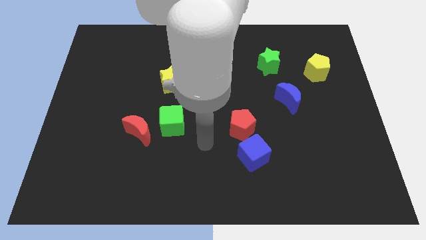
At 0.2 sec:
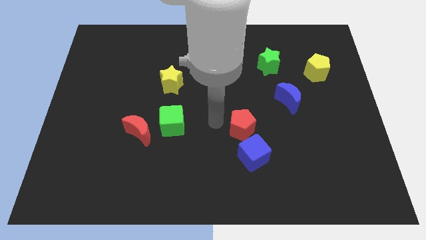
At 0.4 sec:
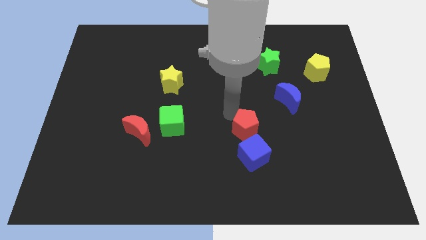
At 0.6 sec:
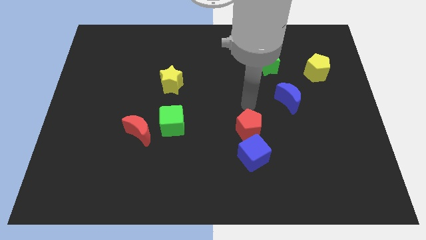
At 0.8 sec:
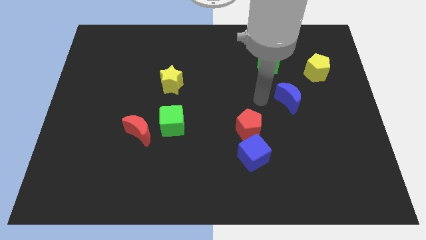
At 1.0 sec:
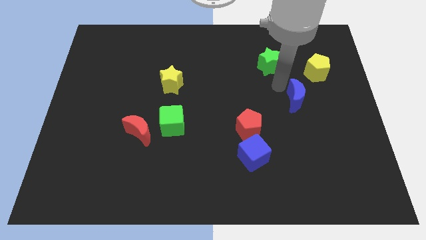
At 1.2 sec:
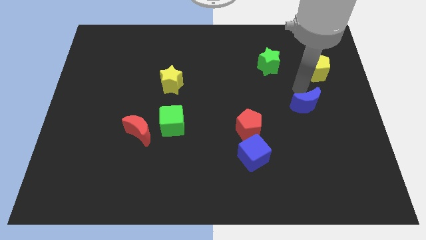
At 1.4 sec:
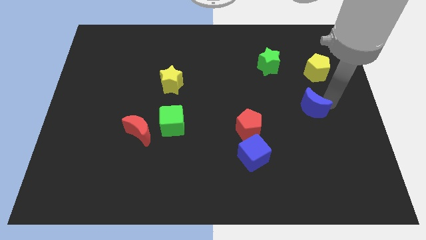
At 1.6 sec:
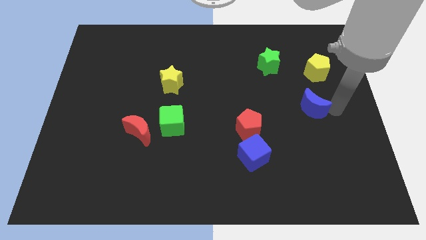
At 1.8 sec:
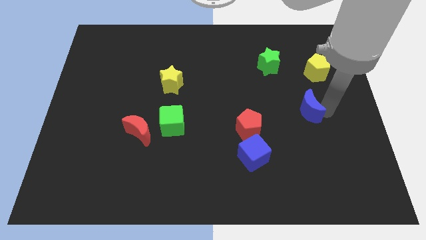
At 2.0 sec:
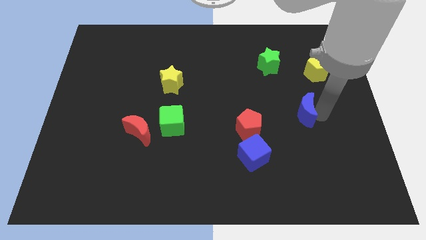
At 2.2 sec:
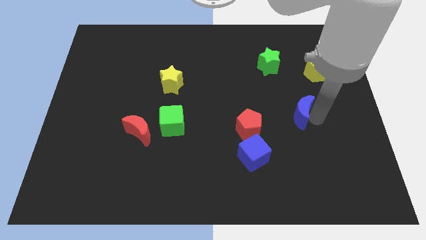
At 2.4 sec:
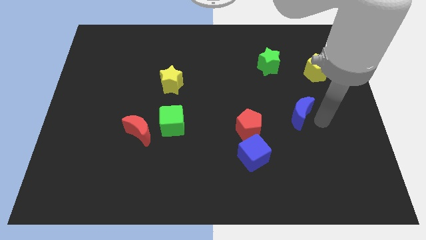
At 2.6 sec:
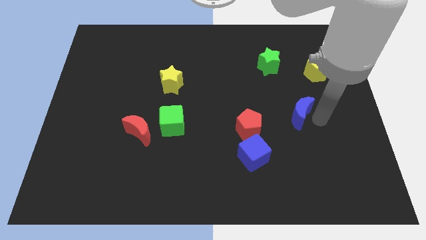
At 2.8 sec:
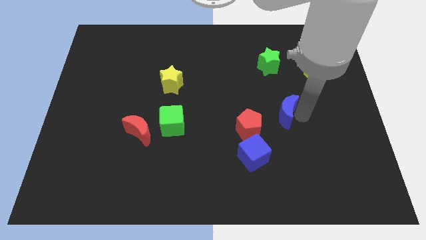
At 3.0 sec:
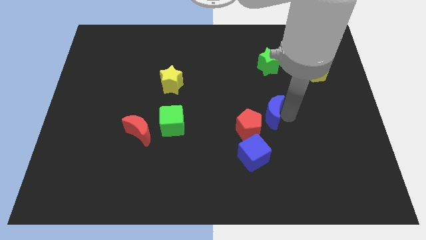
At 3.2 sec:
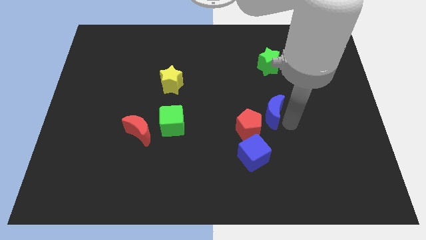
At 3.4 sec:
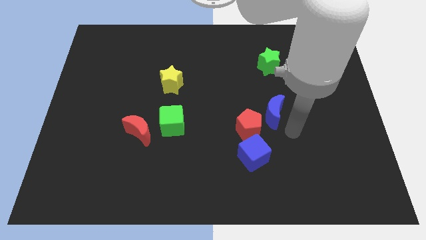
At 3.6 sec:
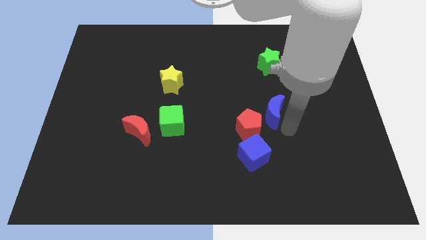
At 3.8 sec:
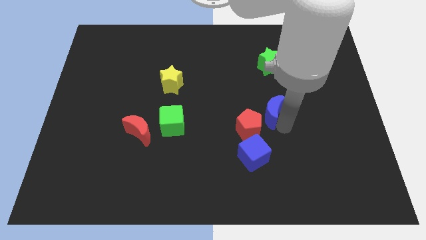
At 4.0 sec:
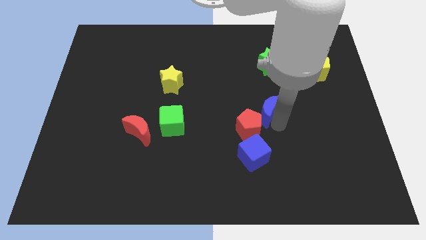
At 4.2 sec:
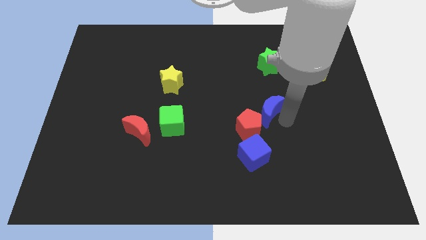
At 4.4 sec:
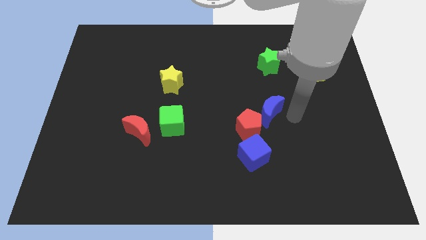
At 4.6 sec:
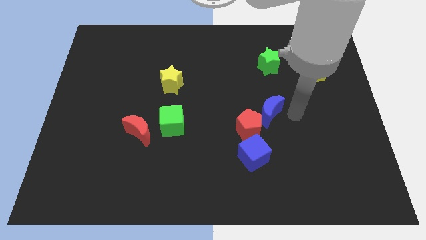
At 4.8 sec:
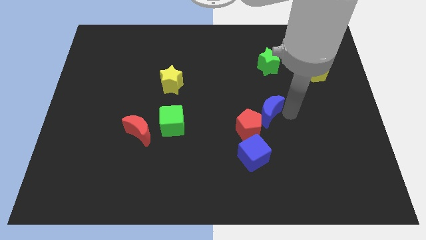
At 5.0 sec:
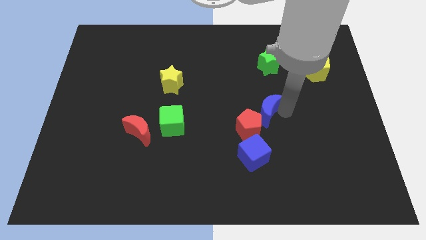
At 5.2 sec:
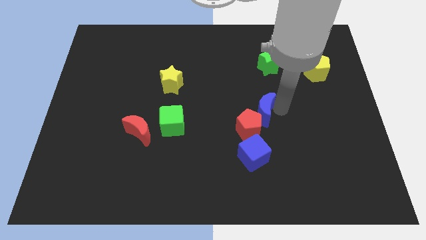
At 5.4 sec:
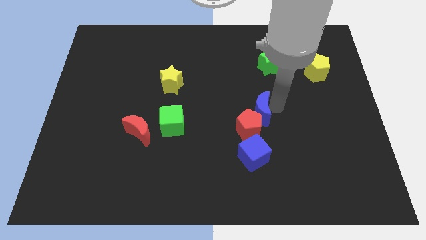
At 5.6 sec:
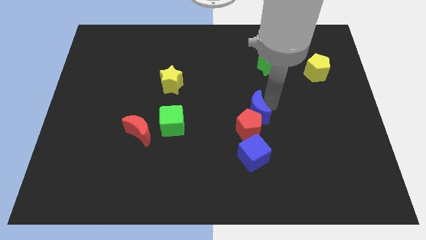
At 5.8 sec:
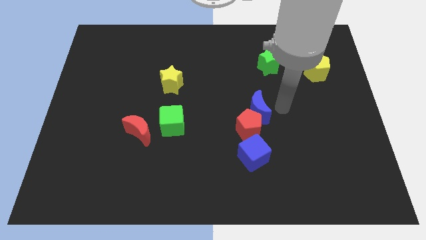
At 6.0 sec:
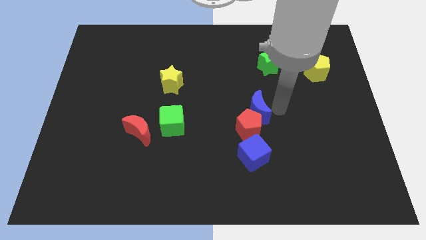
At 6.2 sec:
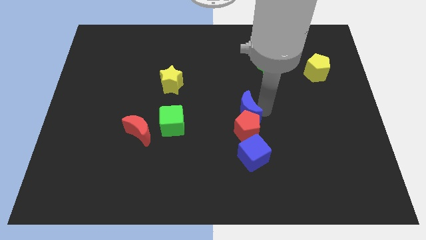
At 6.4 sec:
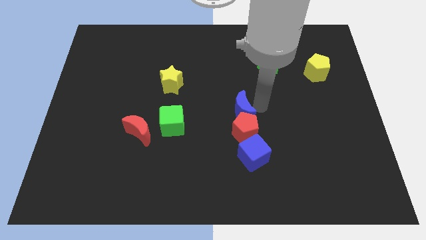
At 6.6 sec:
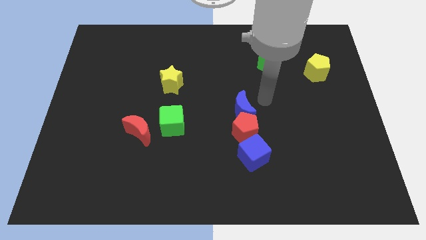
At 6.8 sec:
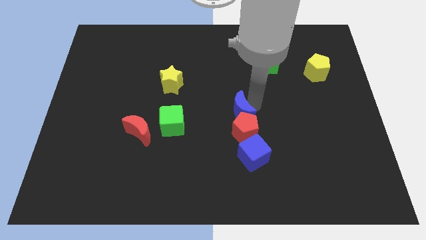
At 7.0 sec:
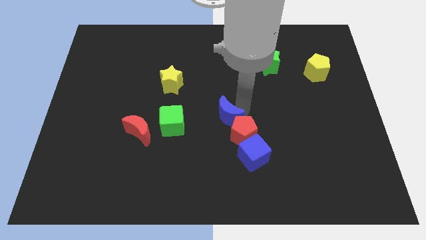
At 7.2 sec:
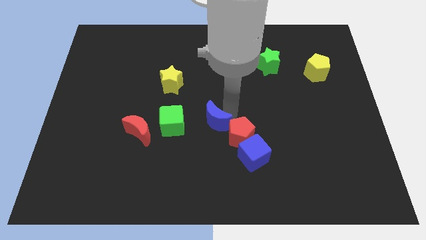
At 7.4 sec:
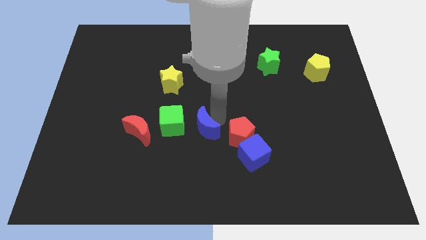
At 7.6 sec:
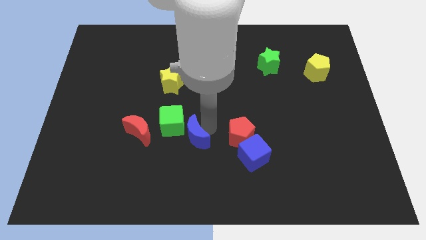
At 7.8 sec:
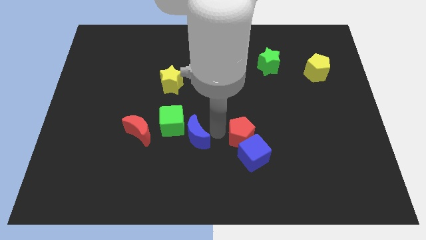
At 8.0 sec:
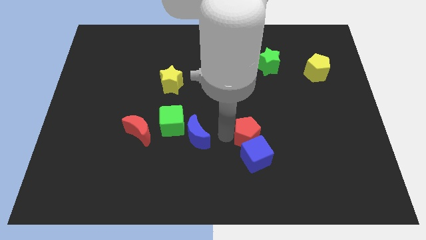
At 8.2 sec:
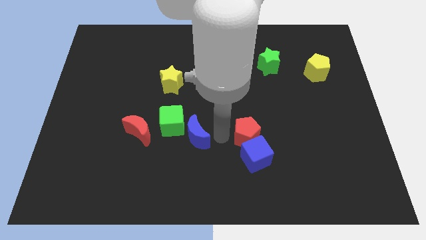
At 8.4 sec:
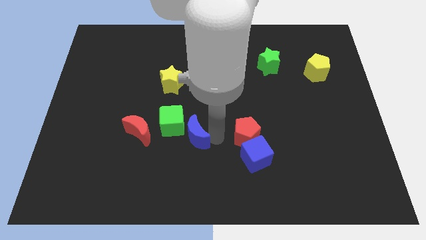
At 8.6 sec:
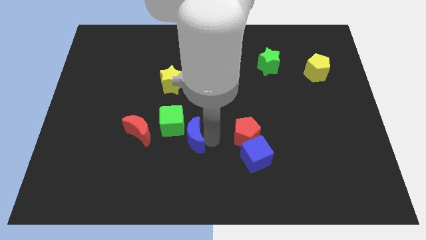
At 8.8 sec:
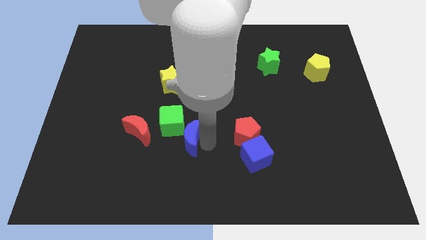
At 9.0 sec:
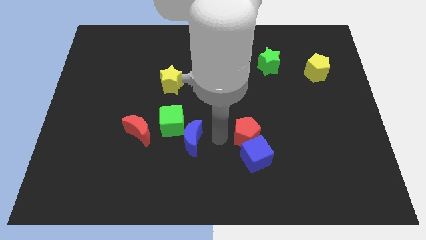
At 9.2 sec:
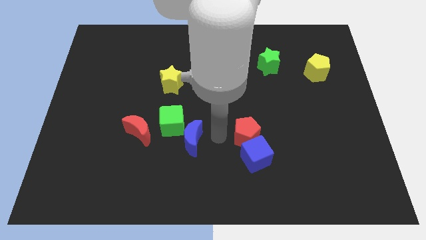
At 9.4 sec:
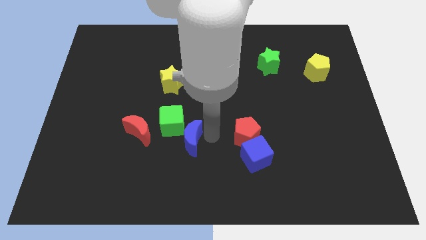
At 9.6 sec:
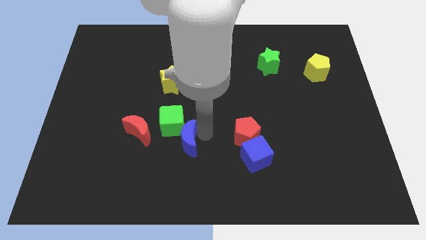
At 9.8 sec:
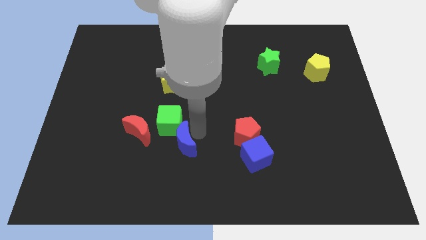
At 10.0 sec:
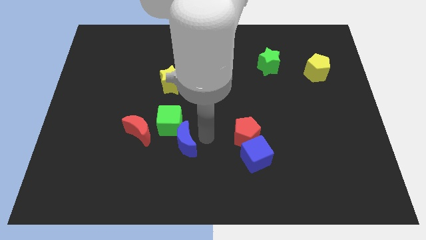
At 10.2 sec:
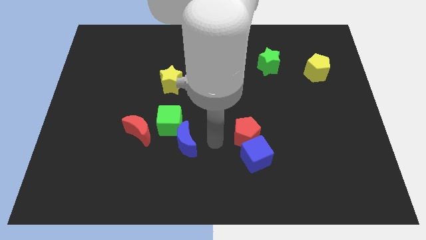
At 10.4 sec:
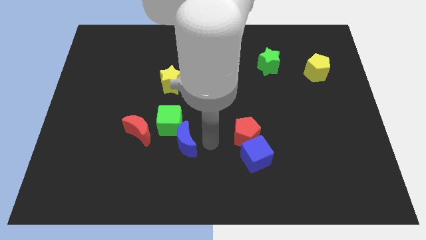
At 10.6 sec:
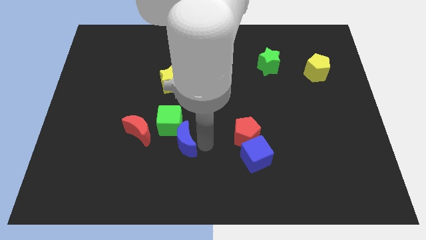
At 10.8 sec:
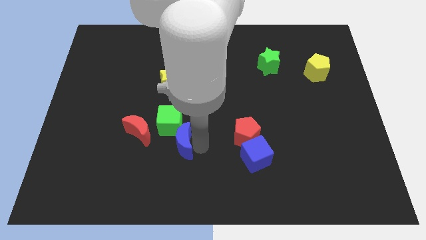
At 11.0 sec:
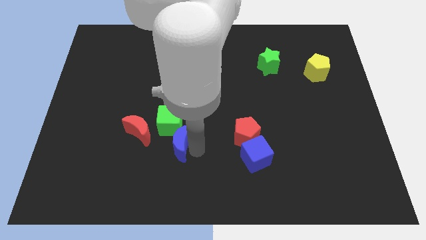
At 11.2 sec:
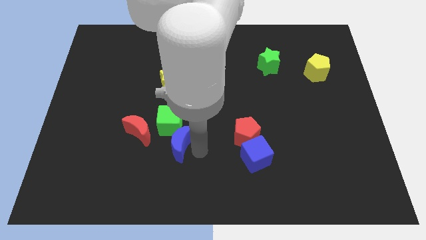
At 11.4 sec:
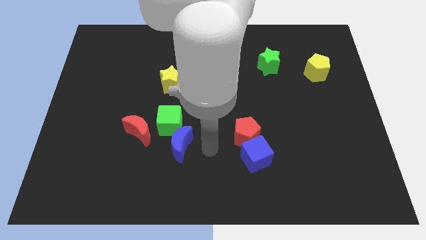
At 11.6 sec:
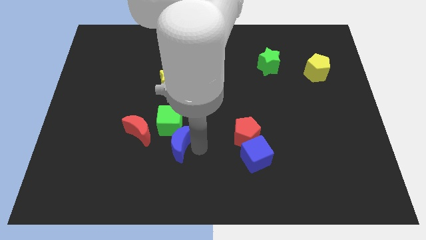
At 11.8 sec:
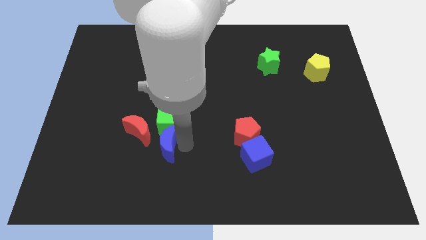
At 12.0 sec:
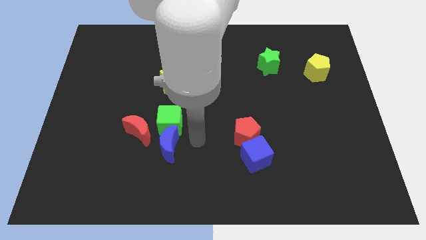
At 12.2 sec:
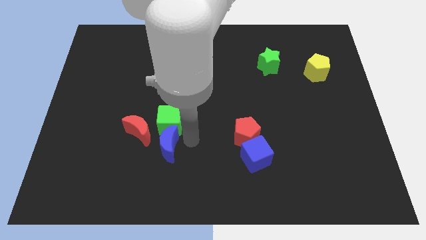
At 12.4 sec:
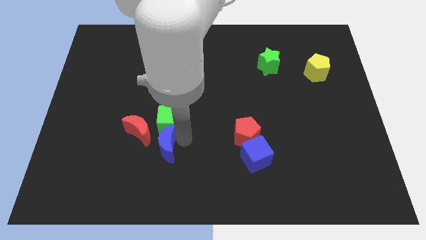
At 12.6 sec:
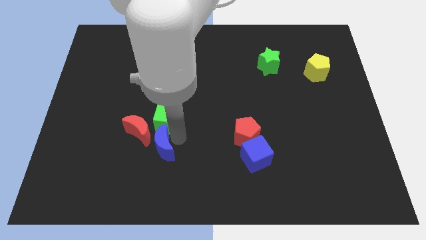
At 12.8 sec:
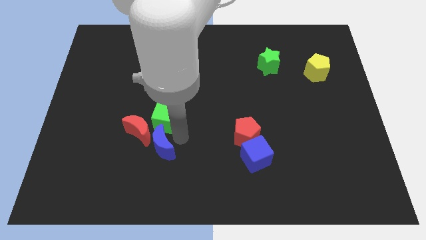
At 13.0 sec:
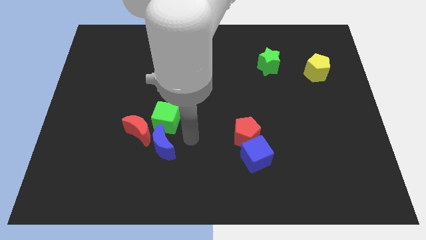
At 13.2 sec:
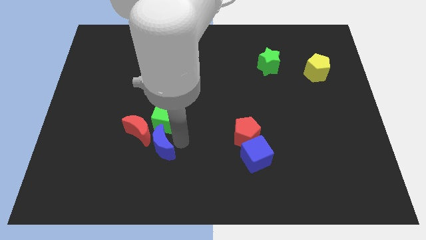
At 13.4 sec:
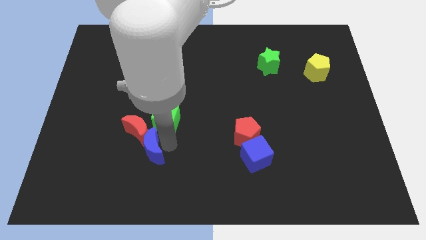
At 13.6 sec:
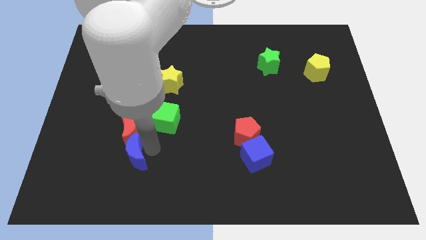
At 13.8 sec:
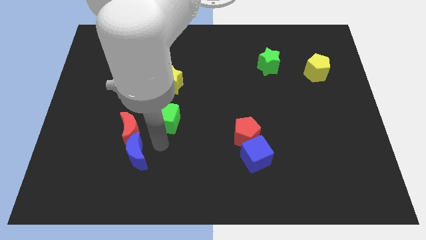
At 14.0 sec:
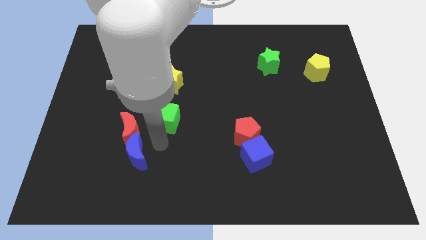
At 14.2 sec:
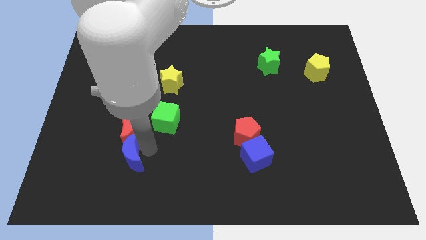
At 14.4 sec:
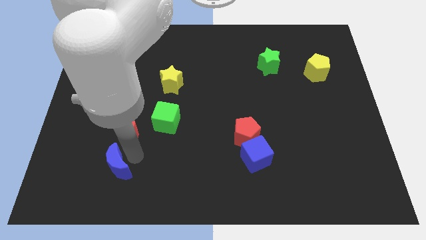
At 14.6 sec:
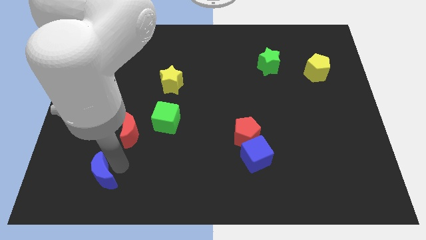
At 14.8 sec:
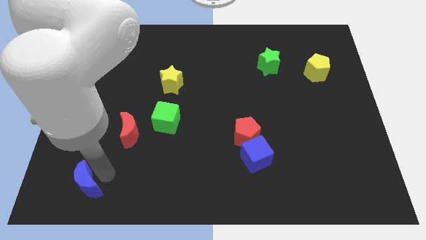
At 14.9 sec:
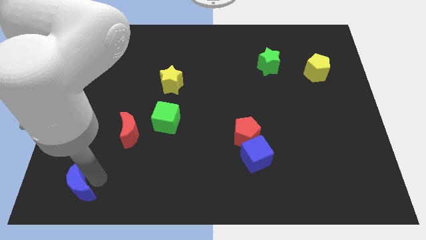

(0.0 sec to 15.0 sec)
push the blue moon to the bottom left
